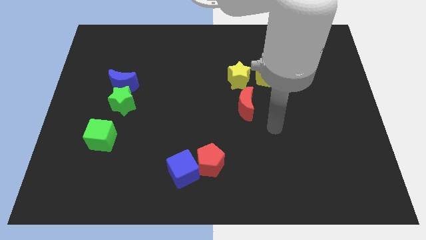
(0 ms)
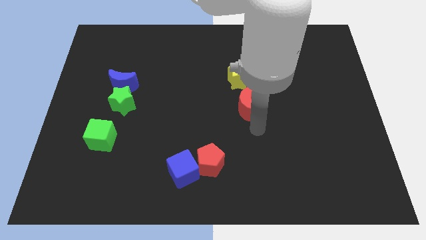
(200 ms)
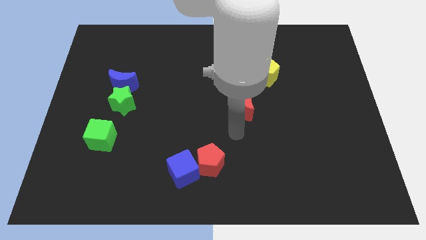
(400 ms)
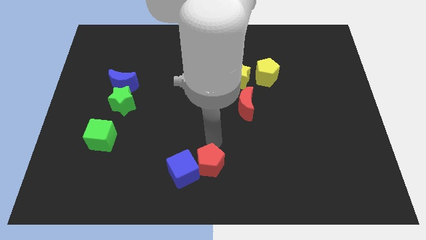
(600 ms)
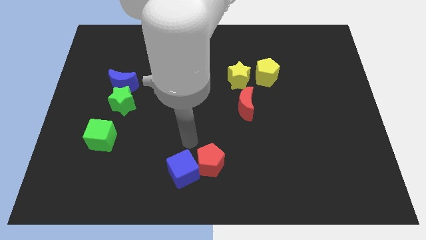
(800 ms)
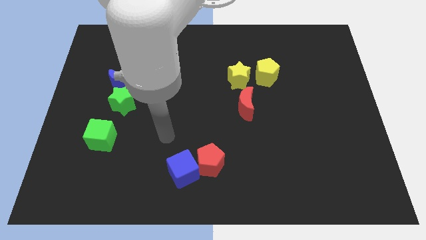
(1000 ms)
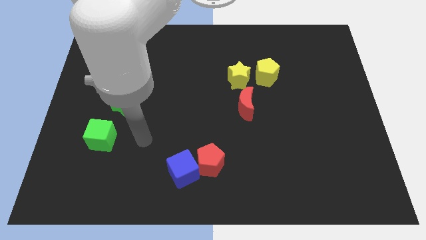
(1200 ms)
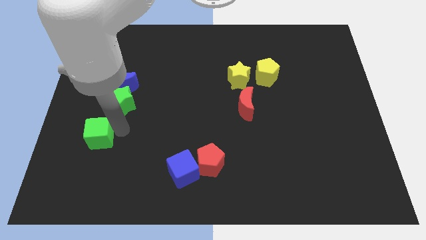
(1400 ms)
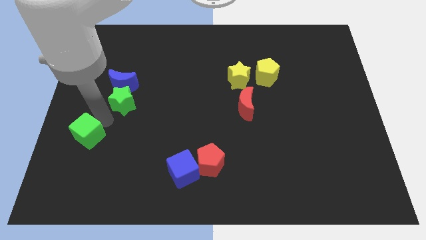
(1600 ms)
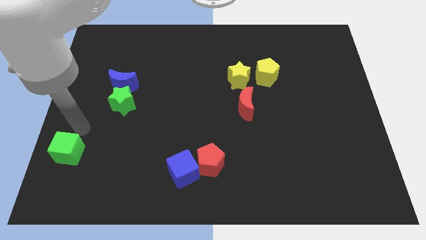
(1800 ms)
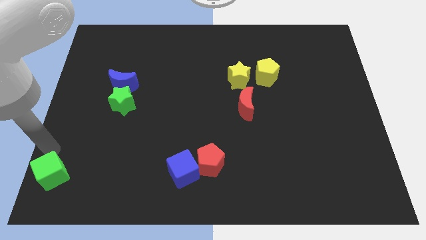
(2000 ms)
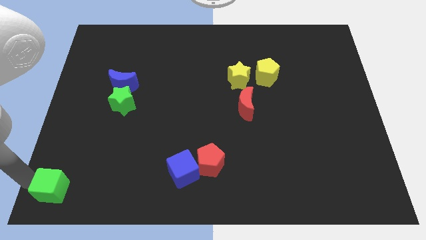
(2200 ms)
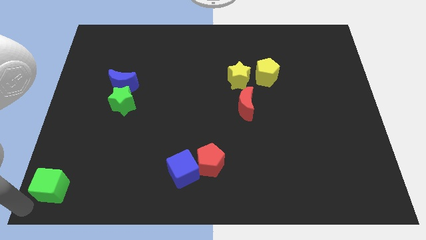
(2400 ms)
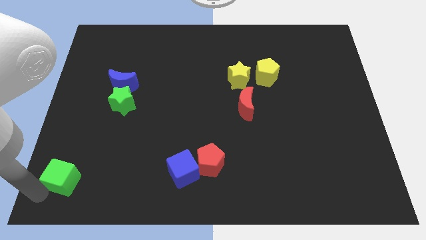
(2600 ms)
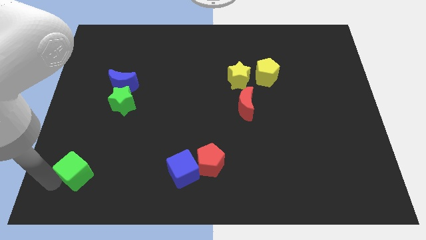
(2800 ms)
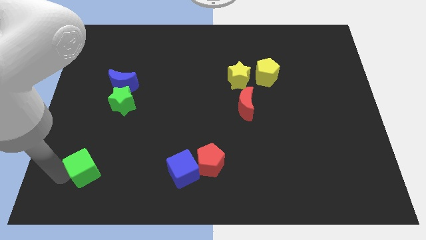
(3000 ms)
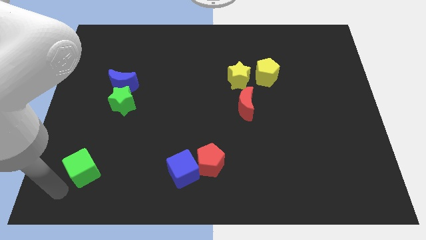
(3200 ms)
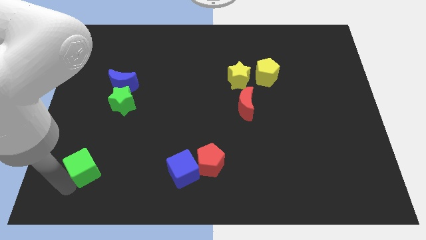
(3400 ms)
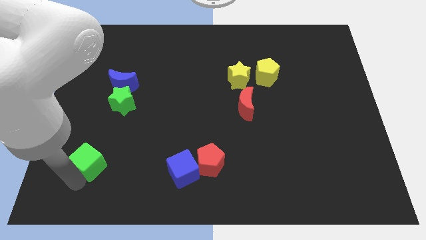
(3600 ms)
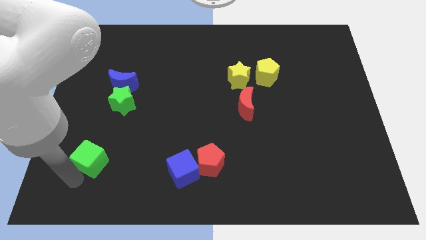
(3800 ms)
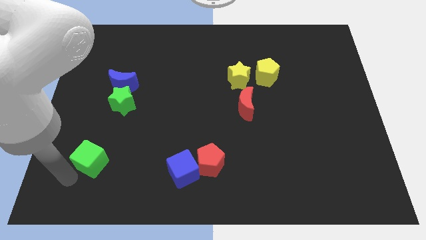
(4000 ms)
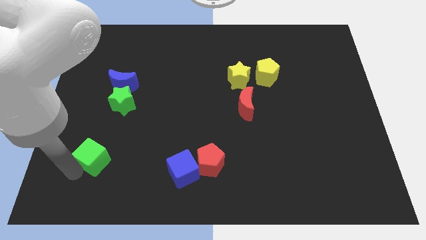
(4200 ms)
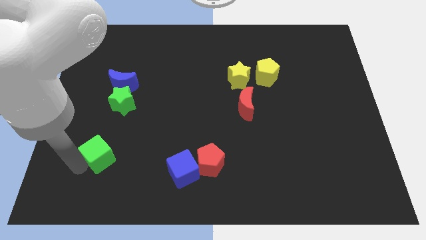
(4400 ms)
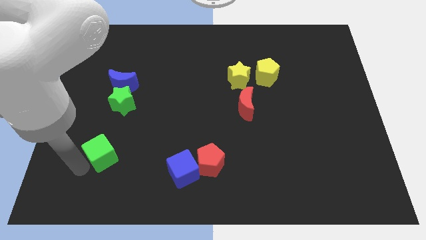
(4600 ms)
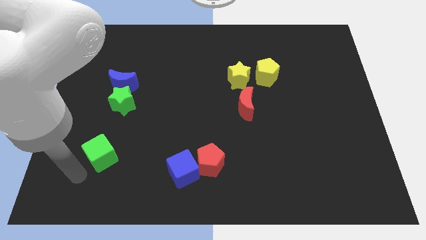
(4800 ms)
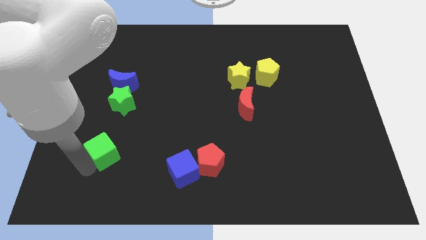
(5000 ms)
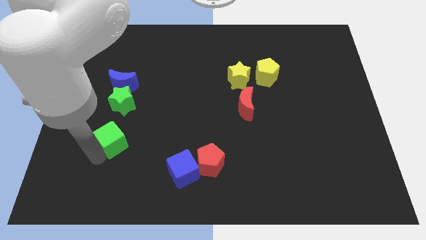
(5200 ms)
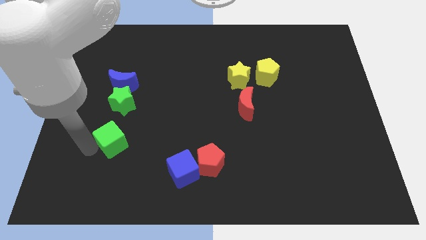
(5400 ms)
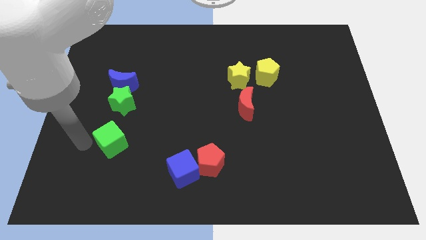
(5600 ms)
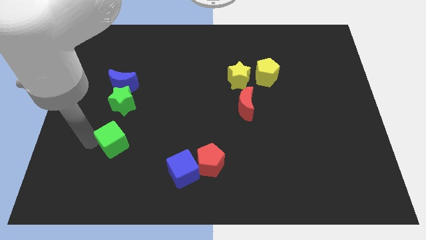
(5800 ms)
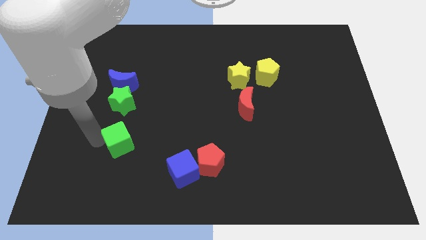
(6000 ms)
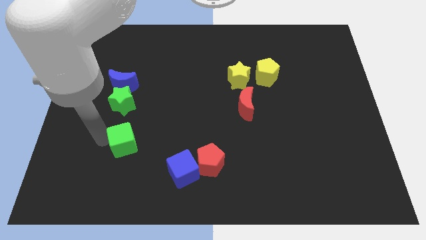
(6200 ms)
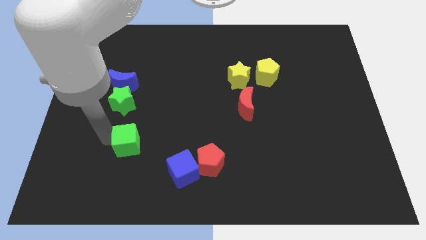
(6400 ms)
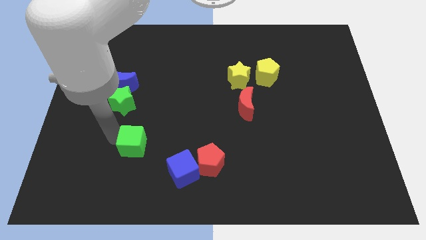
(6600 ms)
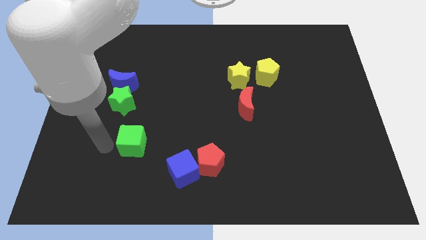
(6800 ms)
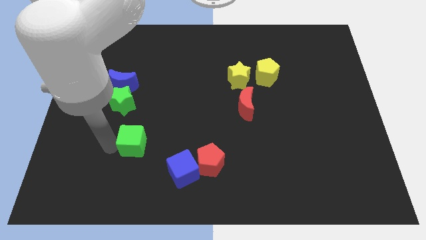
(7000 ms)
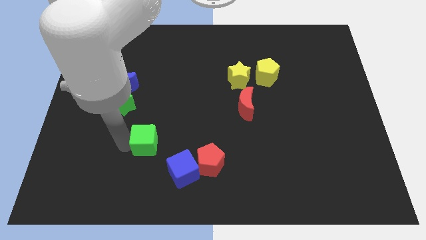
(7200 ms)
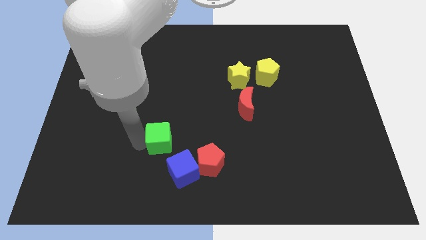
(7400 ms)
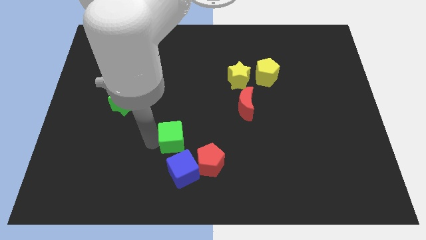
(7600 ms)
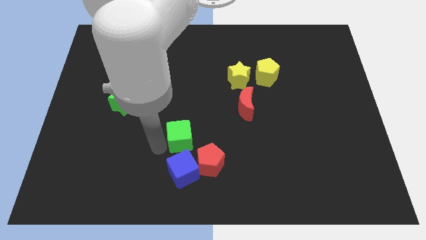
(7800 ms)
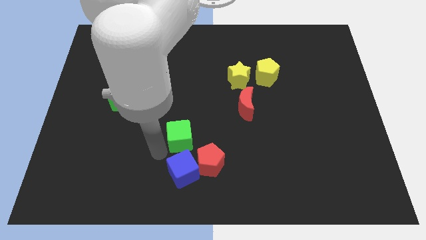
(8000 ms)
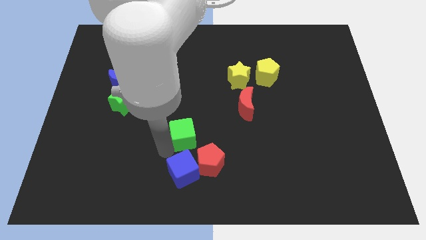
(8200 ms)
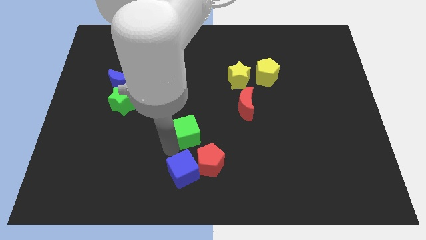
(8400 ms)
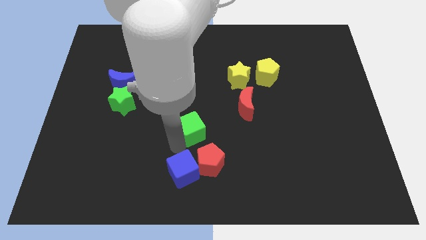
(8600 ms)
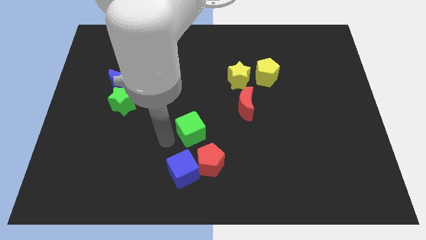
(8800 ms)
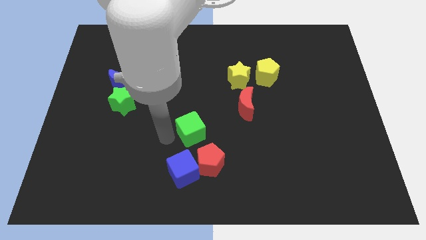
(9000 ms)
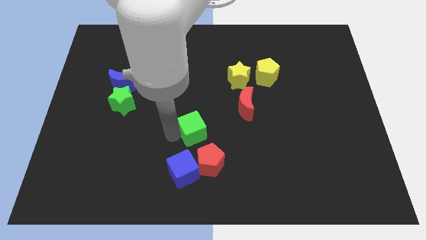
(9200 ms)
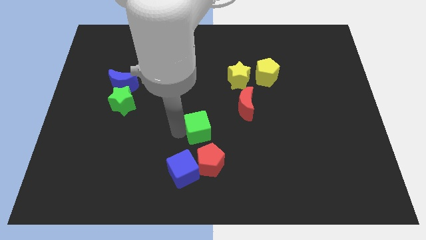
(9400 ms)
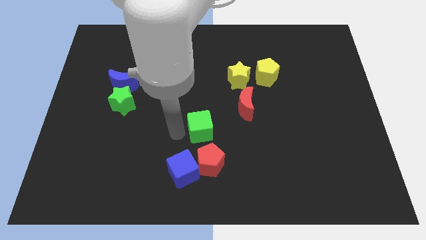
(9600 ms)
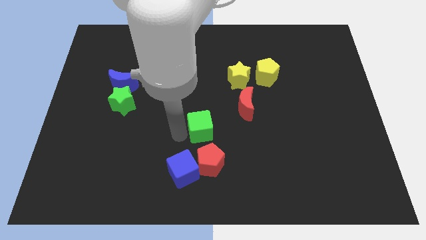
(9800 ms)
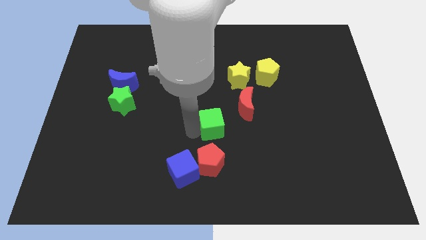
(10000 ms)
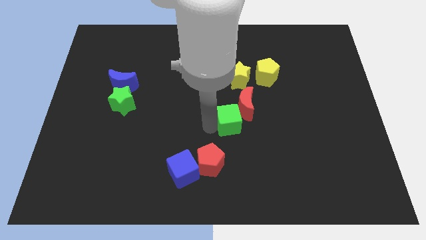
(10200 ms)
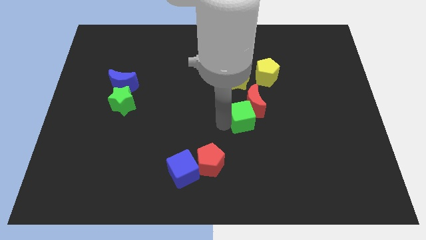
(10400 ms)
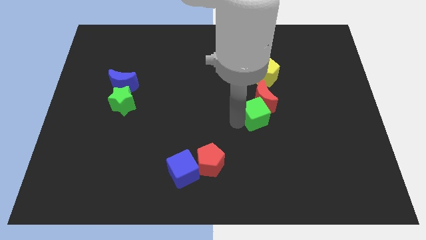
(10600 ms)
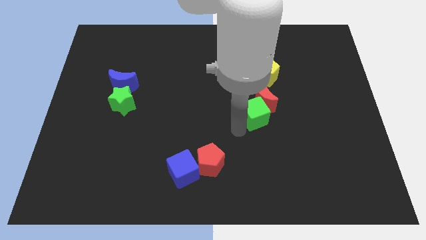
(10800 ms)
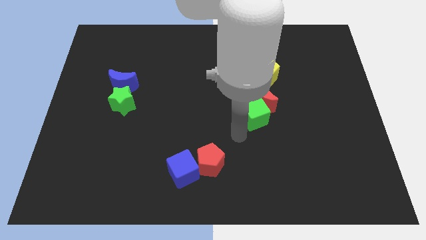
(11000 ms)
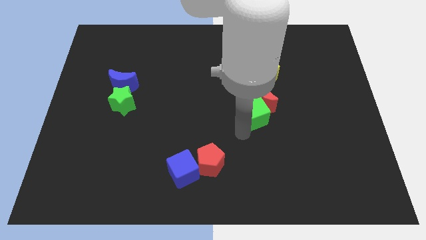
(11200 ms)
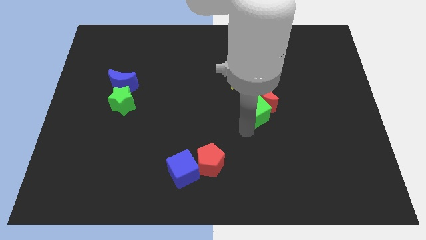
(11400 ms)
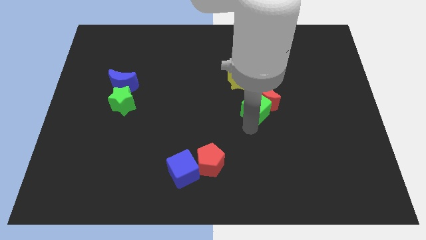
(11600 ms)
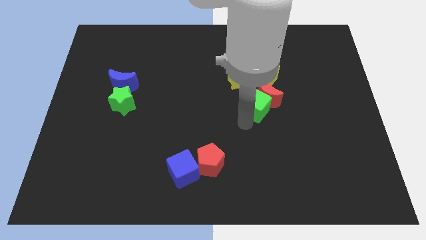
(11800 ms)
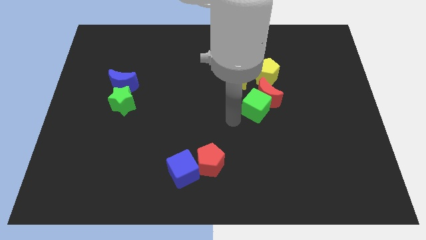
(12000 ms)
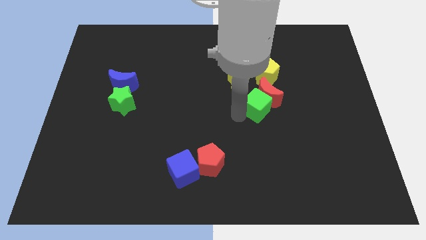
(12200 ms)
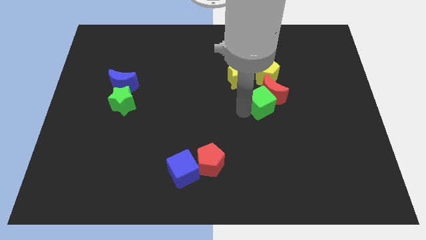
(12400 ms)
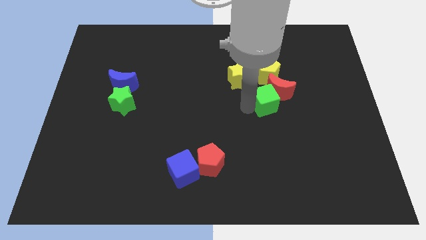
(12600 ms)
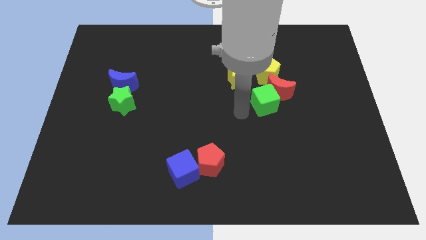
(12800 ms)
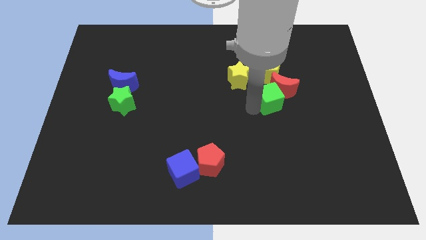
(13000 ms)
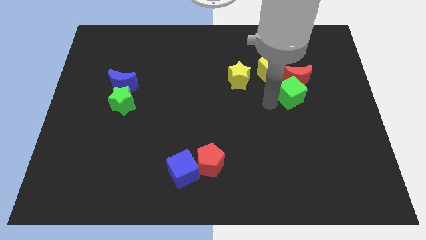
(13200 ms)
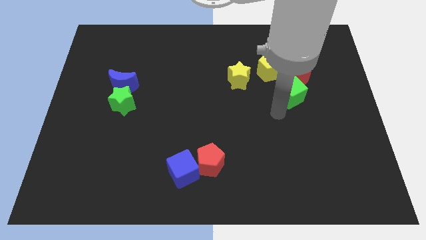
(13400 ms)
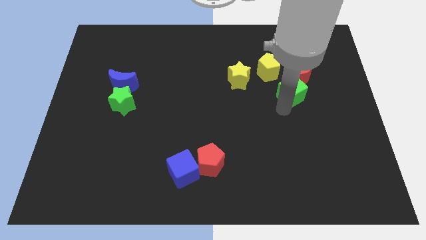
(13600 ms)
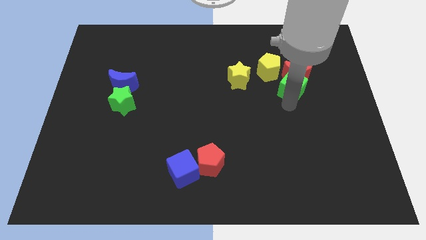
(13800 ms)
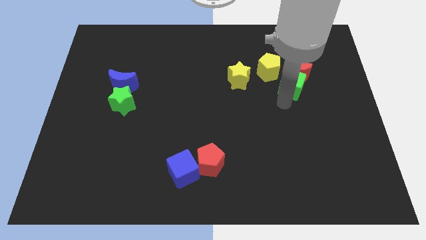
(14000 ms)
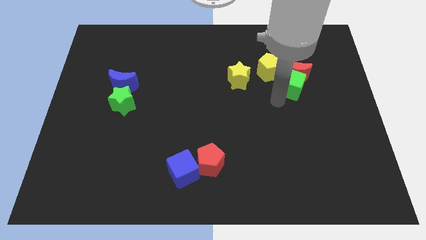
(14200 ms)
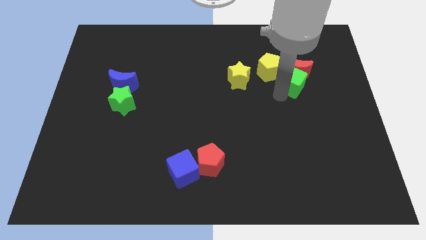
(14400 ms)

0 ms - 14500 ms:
slide the green cube just right of the yellow pentagon
